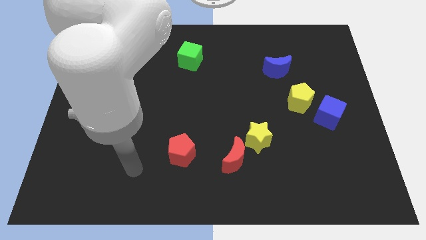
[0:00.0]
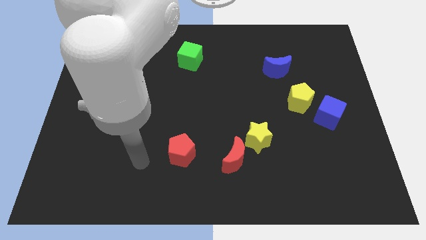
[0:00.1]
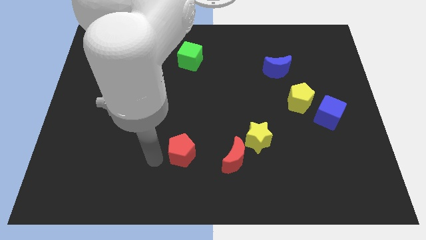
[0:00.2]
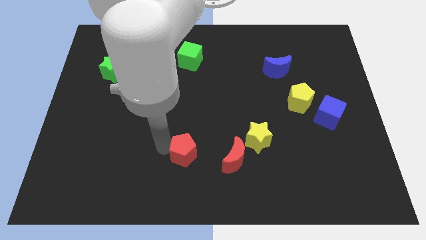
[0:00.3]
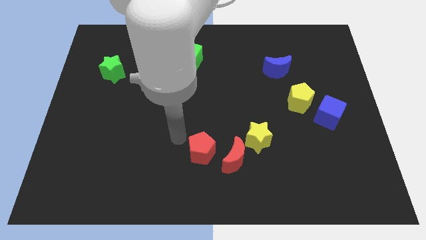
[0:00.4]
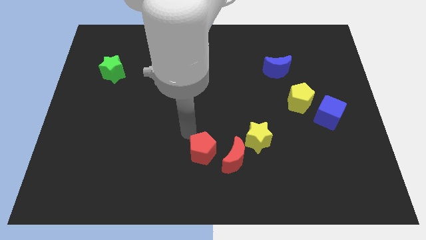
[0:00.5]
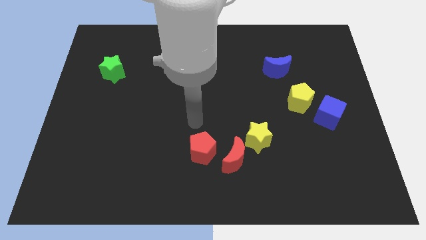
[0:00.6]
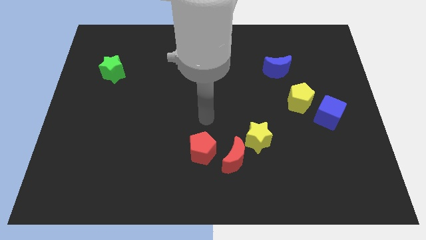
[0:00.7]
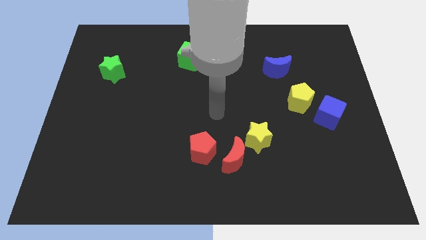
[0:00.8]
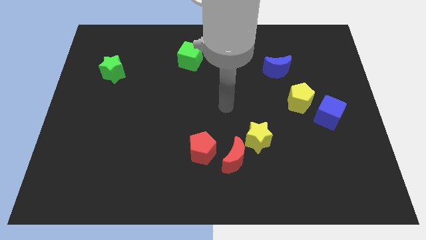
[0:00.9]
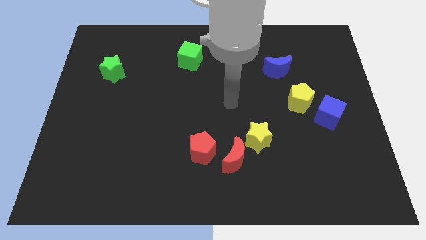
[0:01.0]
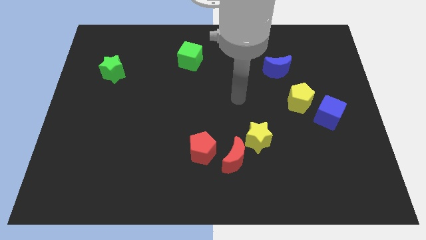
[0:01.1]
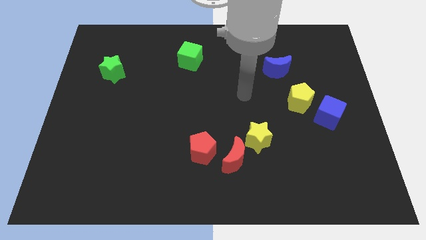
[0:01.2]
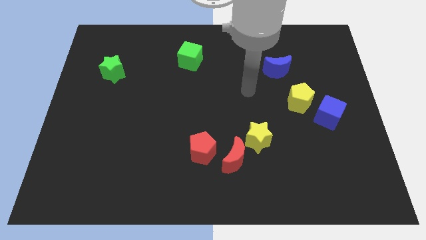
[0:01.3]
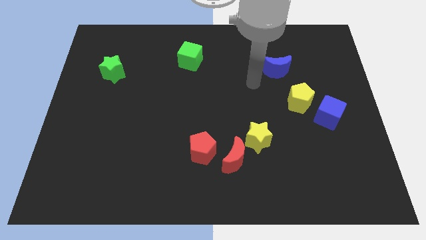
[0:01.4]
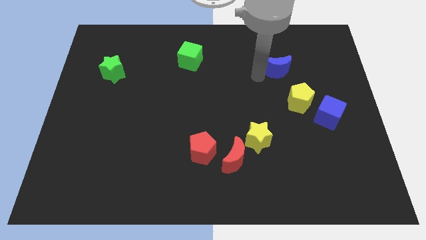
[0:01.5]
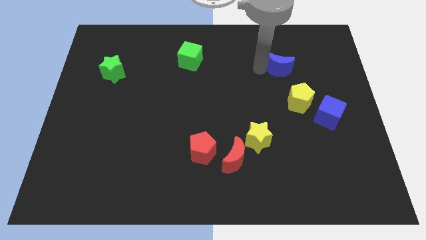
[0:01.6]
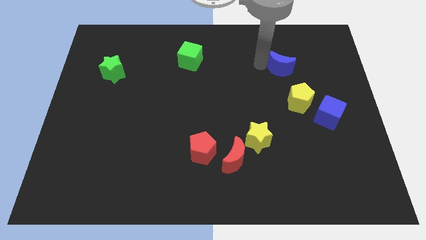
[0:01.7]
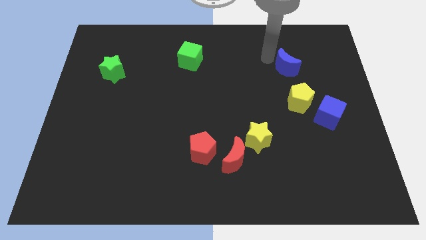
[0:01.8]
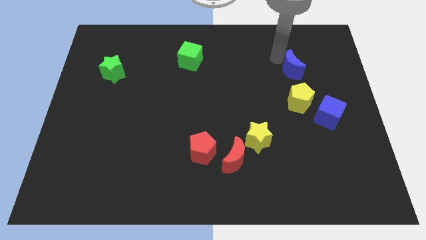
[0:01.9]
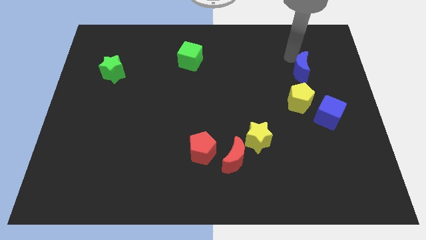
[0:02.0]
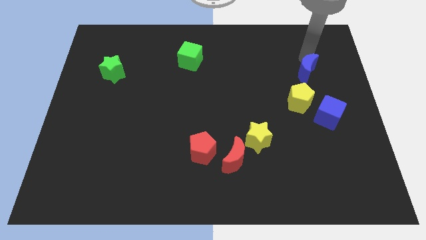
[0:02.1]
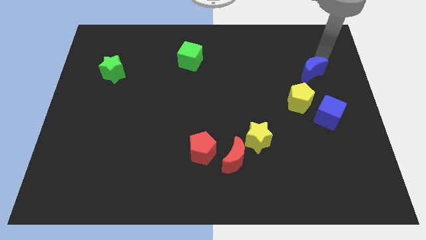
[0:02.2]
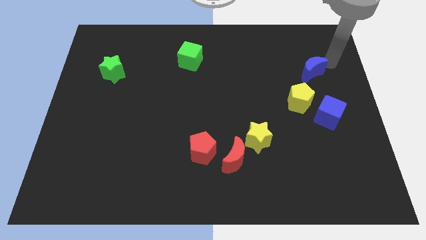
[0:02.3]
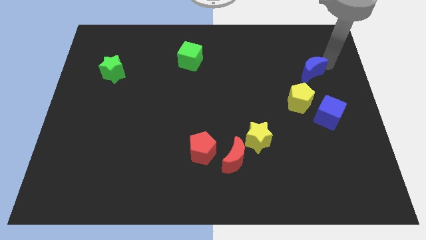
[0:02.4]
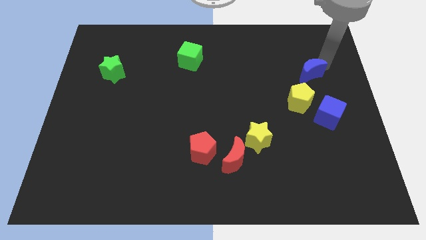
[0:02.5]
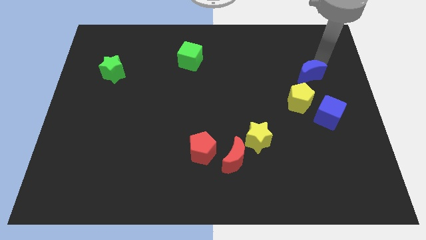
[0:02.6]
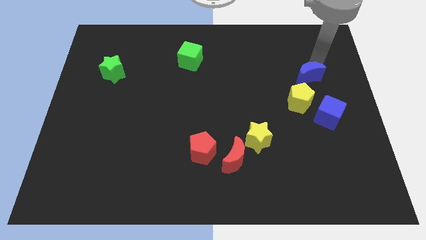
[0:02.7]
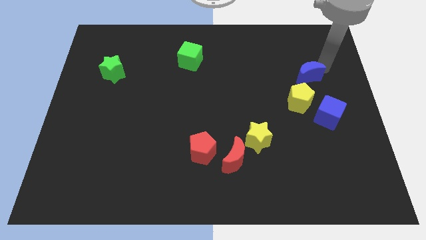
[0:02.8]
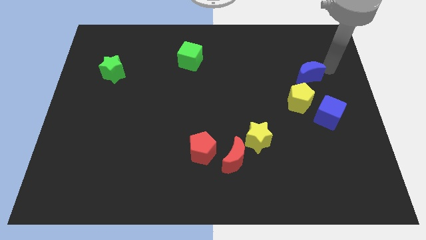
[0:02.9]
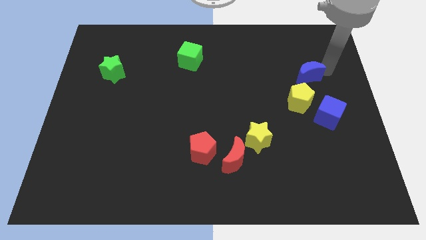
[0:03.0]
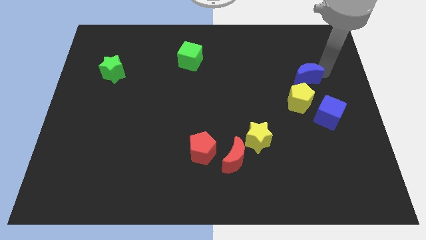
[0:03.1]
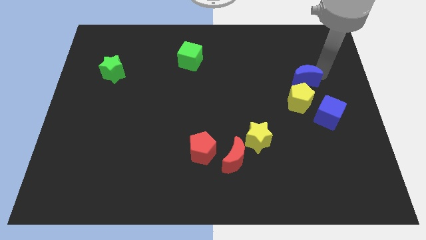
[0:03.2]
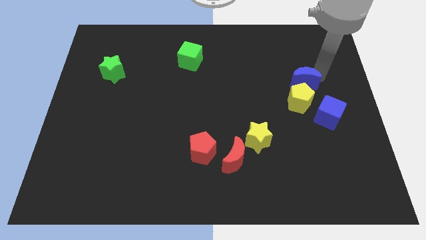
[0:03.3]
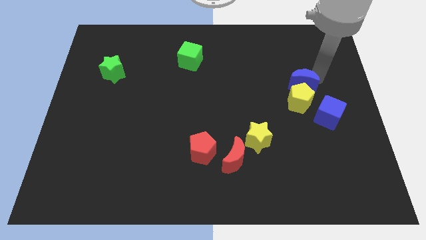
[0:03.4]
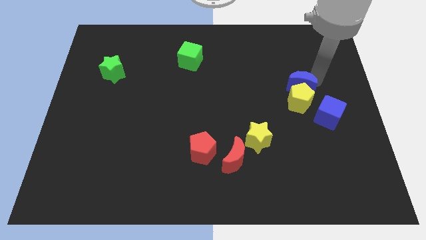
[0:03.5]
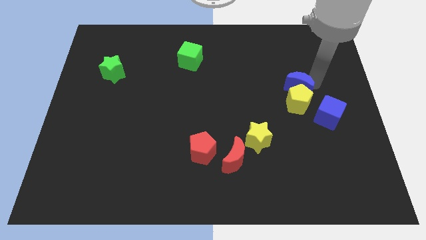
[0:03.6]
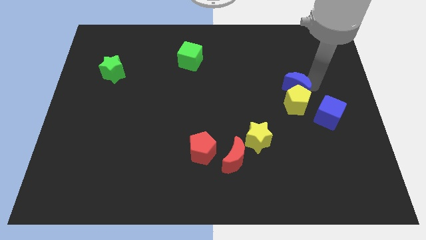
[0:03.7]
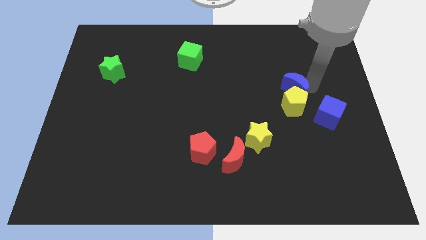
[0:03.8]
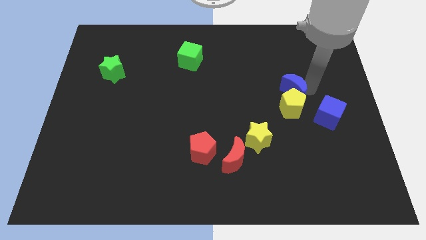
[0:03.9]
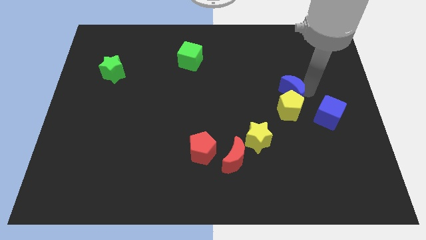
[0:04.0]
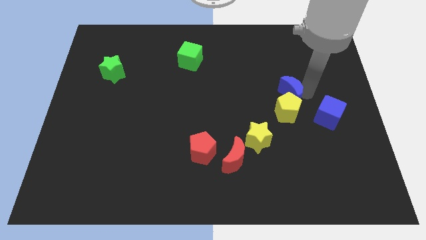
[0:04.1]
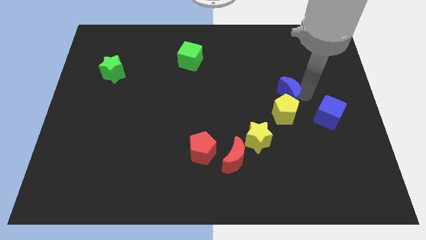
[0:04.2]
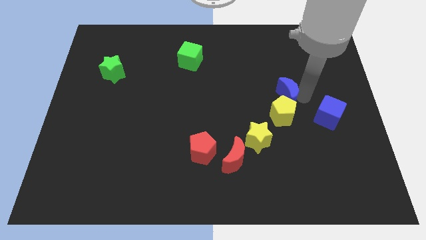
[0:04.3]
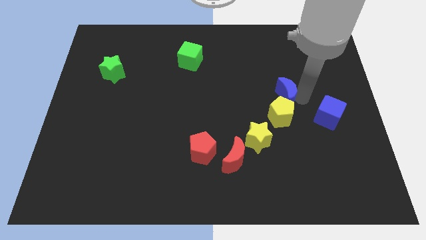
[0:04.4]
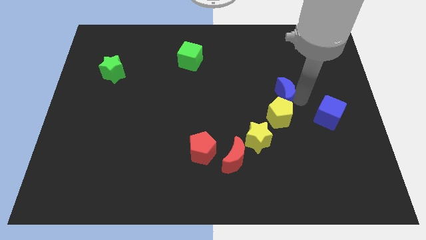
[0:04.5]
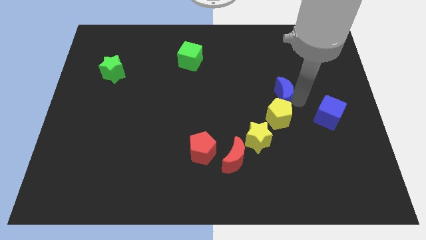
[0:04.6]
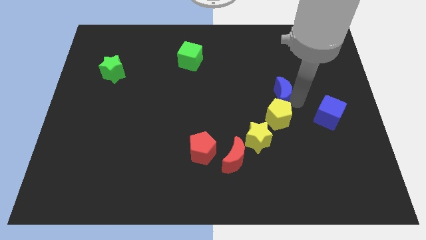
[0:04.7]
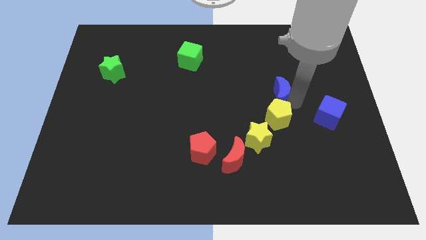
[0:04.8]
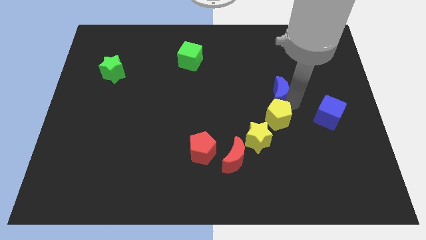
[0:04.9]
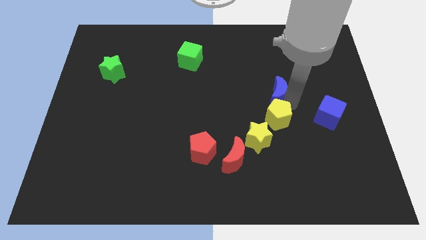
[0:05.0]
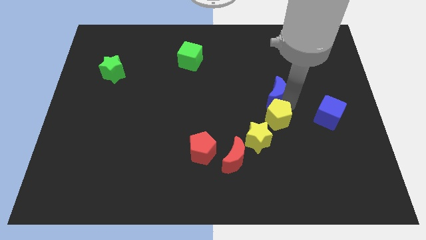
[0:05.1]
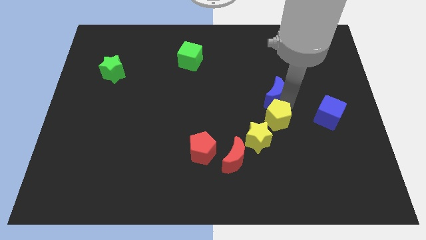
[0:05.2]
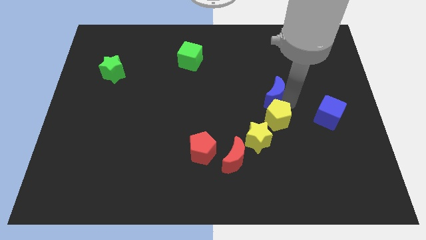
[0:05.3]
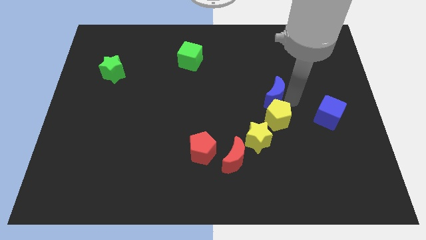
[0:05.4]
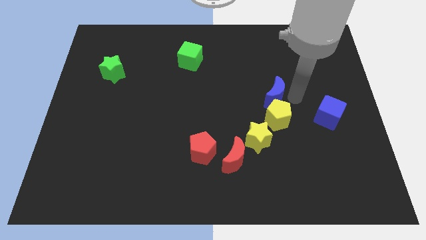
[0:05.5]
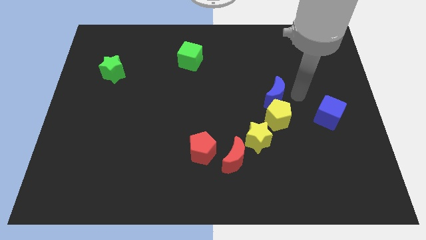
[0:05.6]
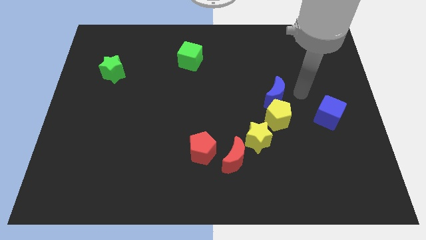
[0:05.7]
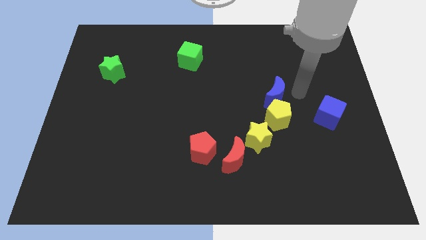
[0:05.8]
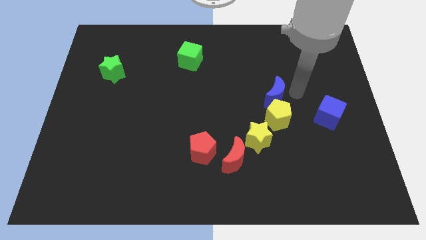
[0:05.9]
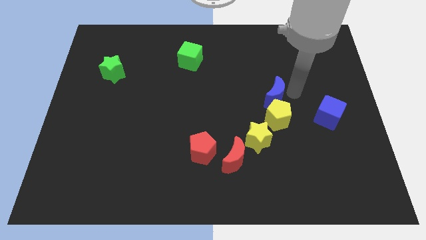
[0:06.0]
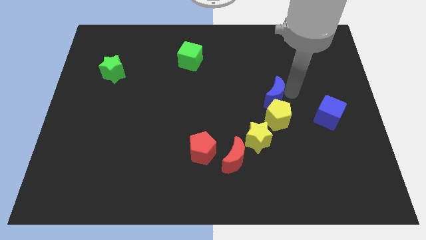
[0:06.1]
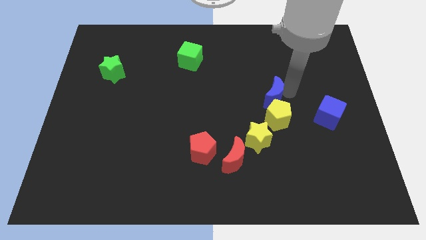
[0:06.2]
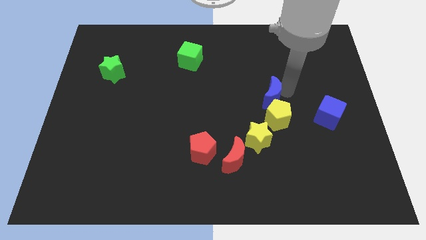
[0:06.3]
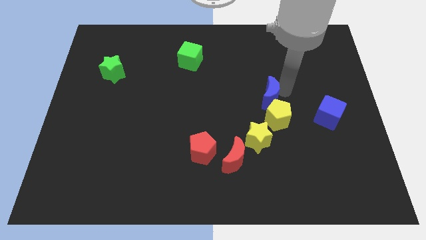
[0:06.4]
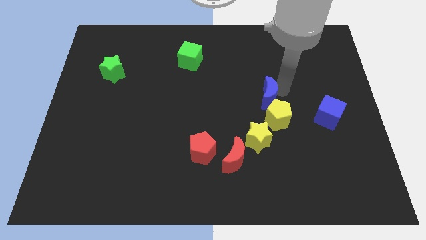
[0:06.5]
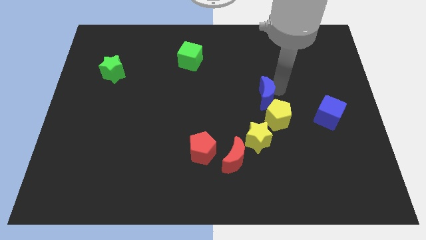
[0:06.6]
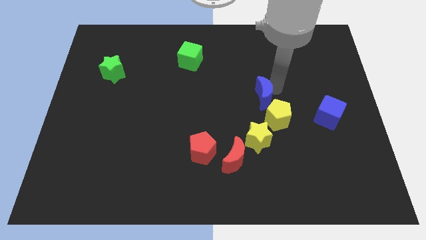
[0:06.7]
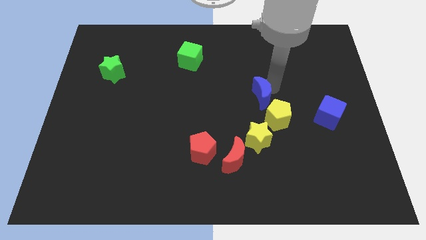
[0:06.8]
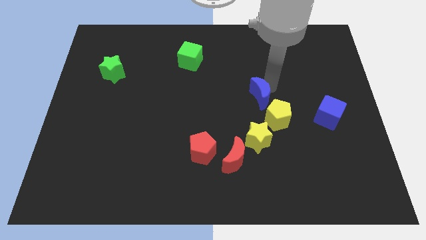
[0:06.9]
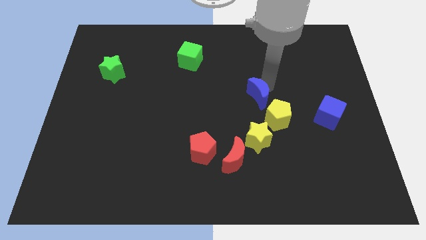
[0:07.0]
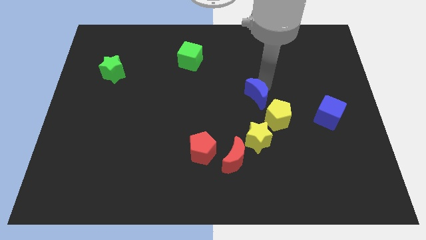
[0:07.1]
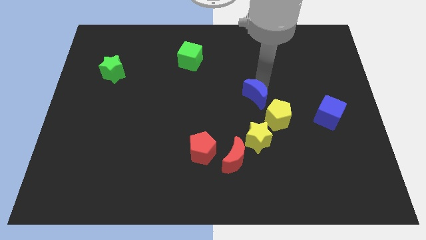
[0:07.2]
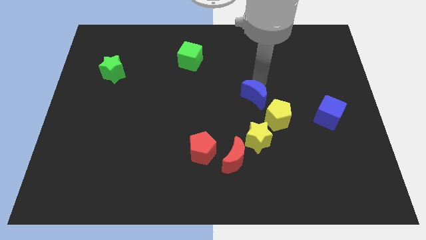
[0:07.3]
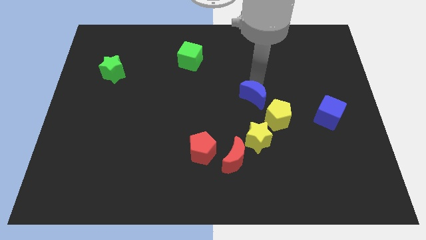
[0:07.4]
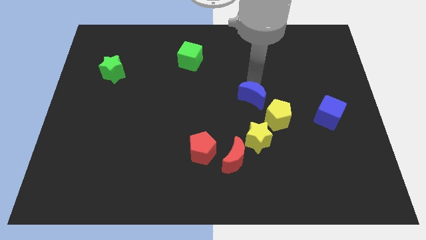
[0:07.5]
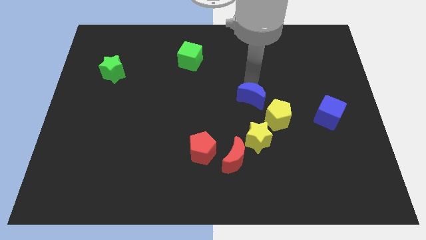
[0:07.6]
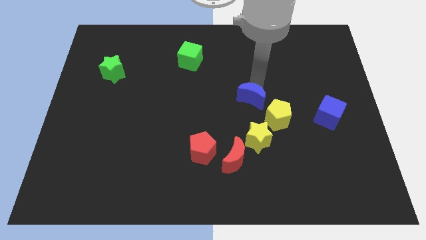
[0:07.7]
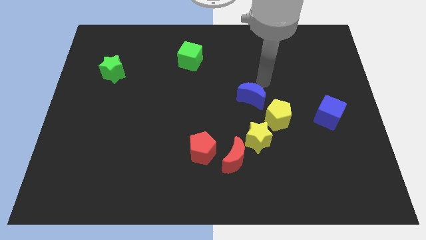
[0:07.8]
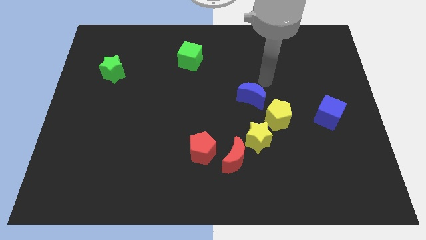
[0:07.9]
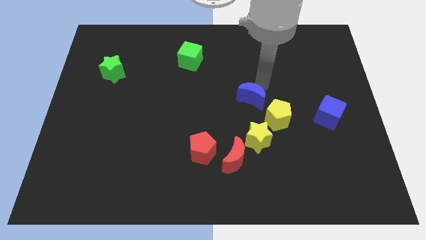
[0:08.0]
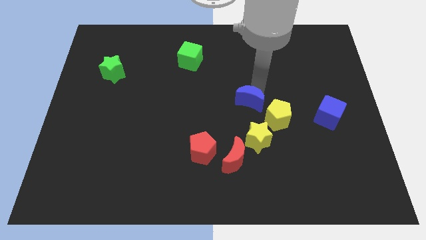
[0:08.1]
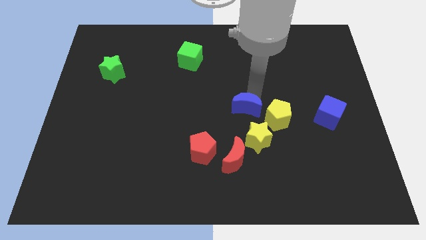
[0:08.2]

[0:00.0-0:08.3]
move the blue moon to the top of the red moon

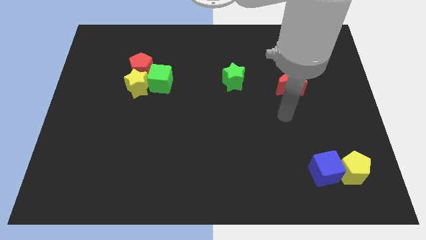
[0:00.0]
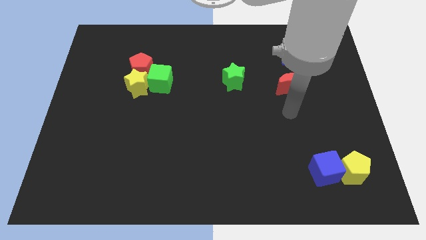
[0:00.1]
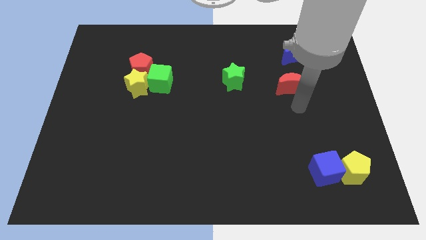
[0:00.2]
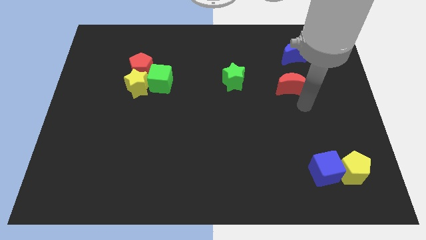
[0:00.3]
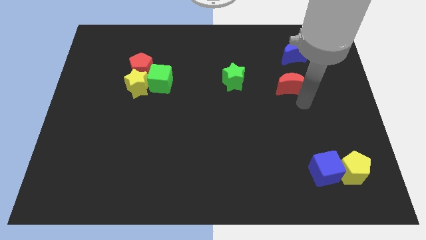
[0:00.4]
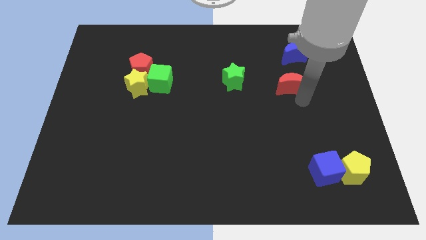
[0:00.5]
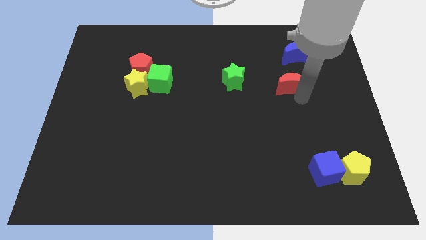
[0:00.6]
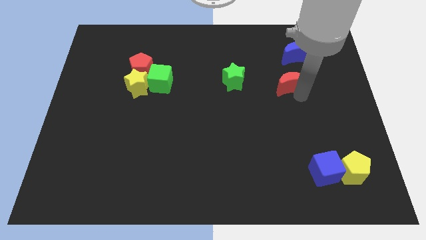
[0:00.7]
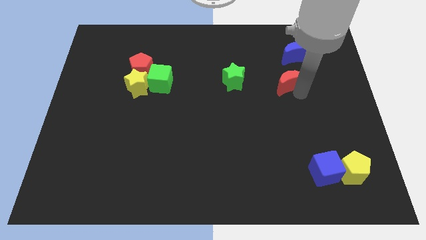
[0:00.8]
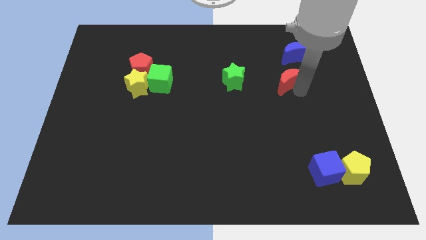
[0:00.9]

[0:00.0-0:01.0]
slide the red moon to the bottom left of the blue moon
